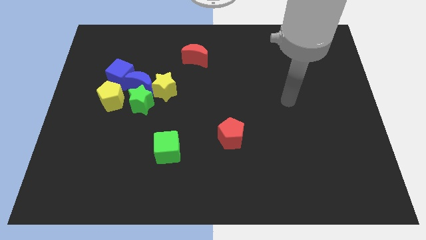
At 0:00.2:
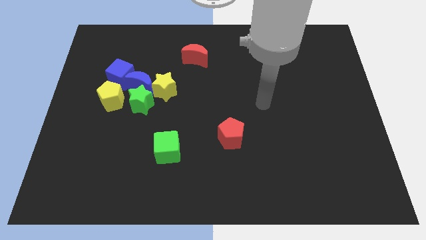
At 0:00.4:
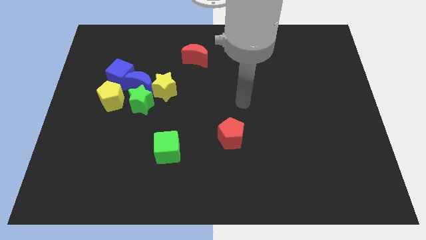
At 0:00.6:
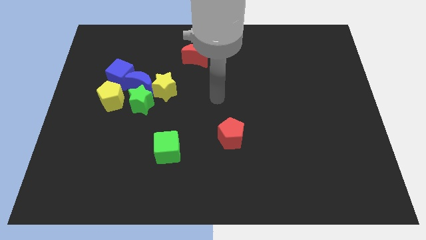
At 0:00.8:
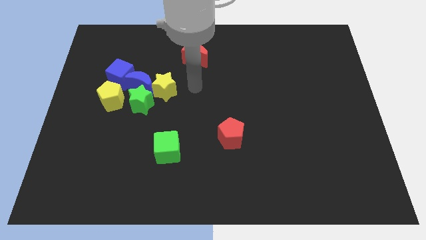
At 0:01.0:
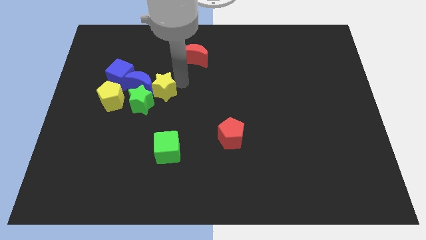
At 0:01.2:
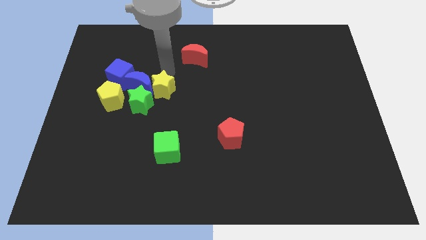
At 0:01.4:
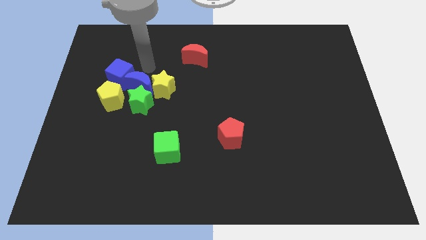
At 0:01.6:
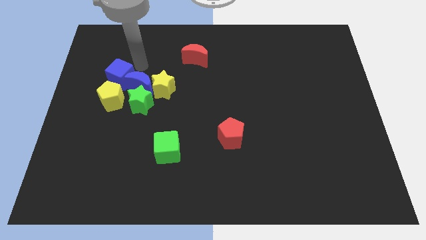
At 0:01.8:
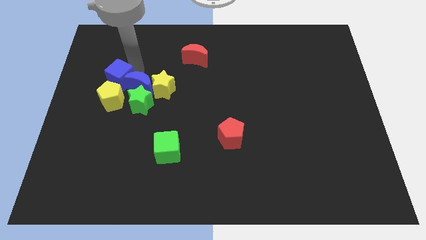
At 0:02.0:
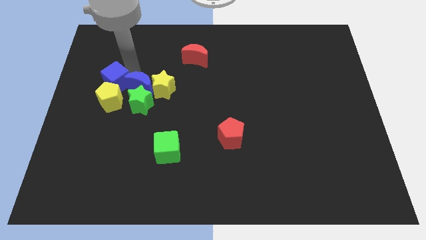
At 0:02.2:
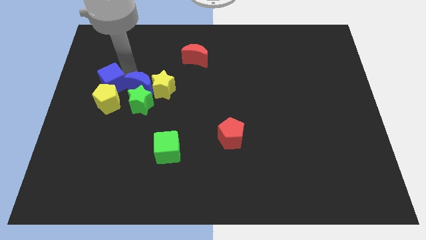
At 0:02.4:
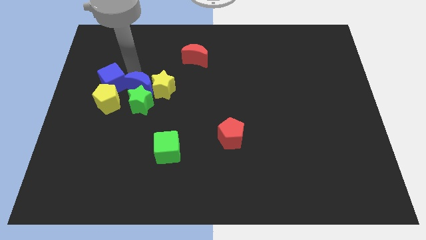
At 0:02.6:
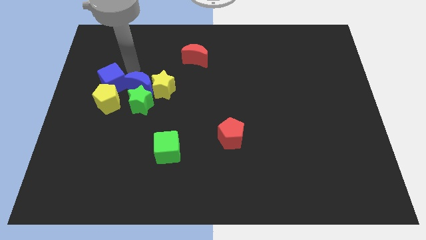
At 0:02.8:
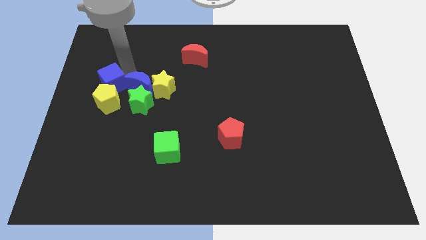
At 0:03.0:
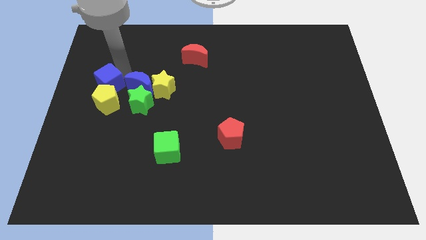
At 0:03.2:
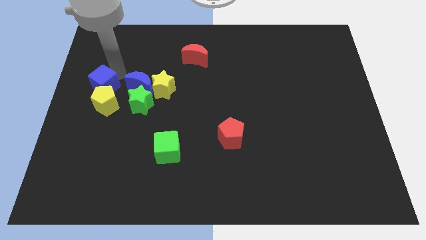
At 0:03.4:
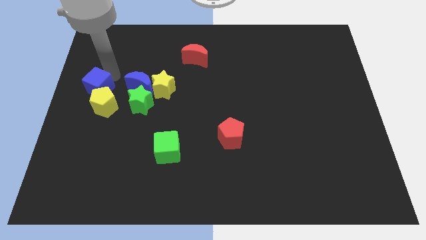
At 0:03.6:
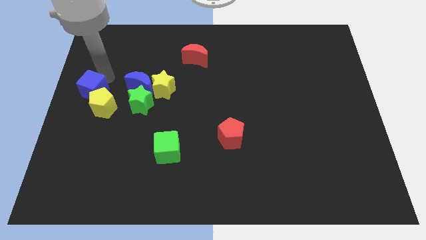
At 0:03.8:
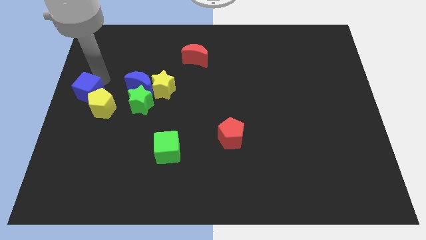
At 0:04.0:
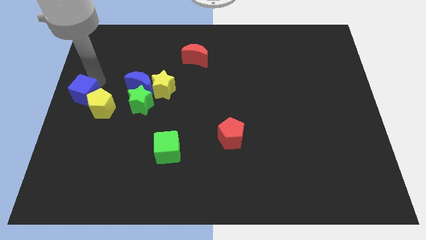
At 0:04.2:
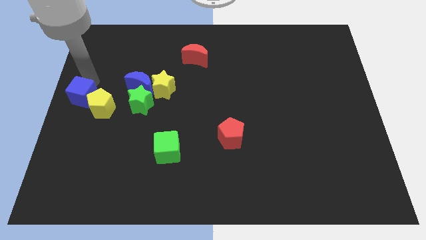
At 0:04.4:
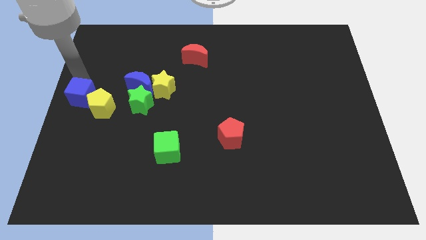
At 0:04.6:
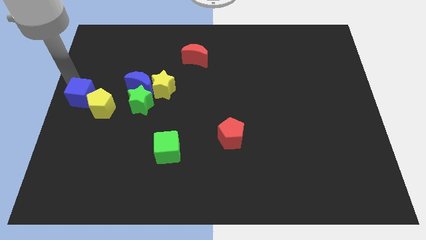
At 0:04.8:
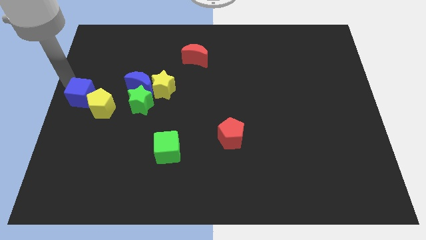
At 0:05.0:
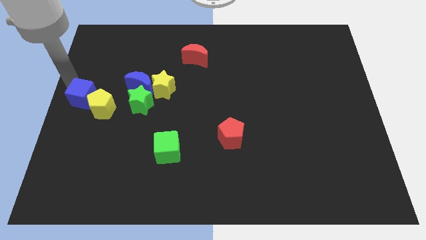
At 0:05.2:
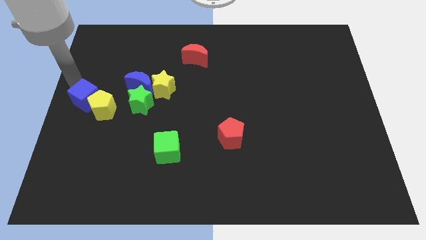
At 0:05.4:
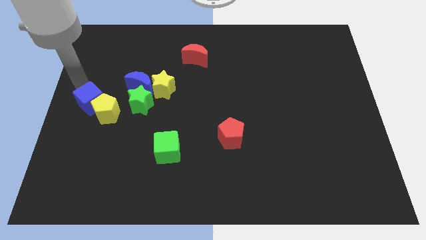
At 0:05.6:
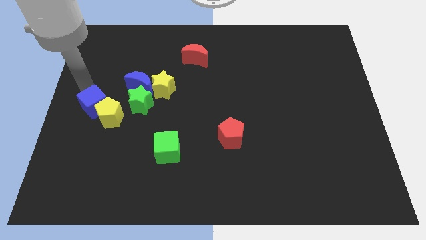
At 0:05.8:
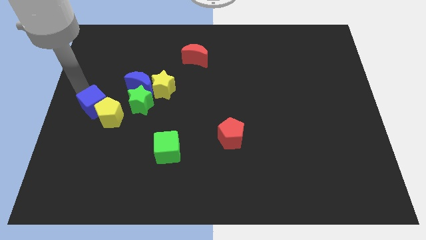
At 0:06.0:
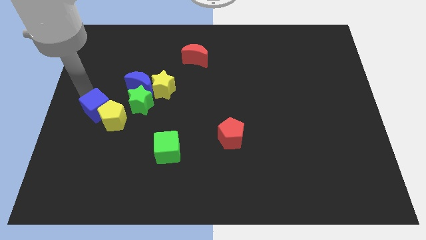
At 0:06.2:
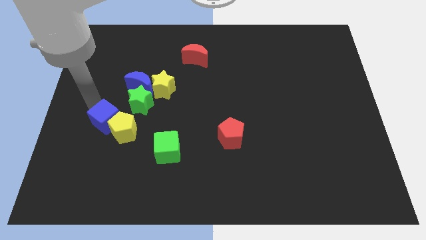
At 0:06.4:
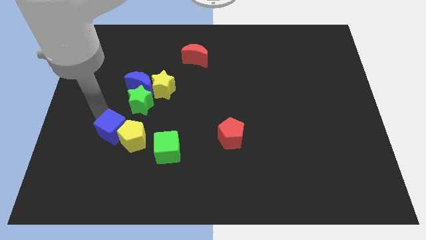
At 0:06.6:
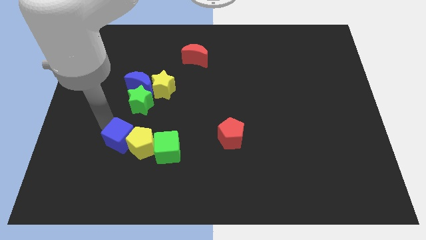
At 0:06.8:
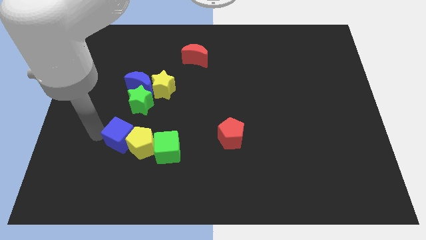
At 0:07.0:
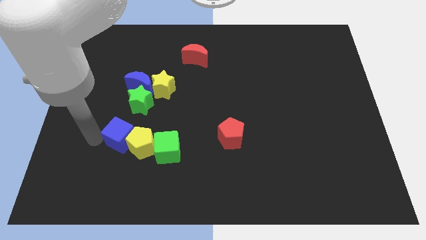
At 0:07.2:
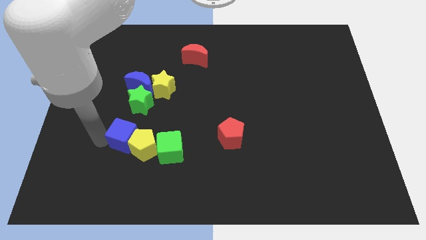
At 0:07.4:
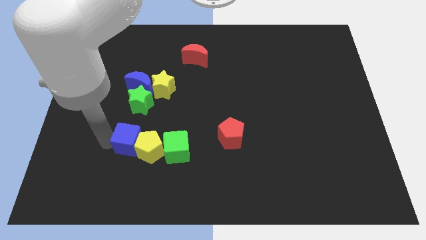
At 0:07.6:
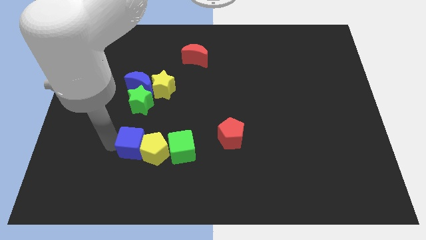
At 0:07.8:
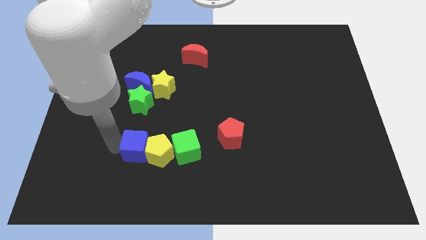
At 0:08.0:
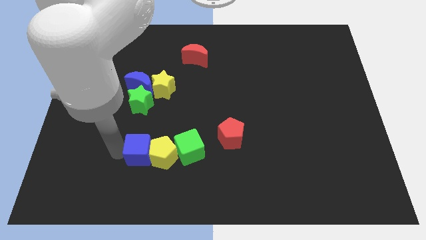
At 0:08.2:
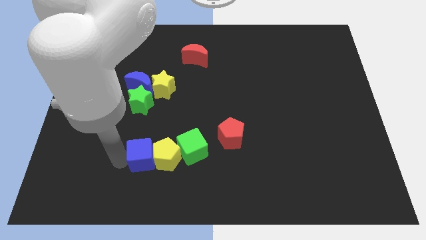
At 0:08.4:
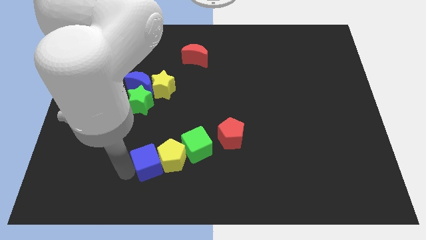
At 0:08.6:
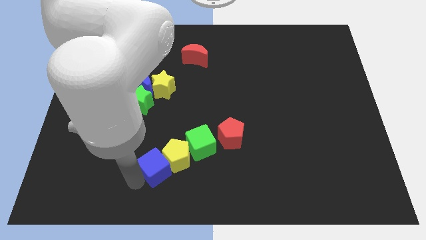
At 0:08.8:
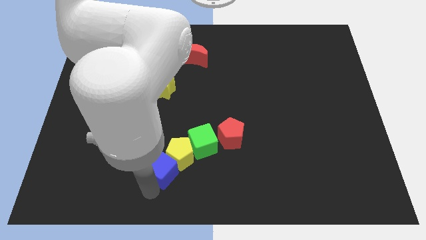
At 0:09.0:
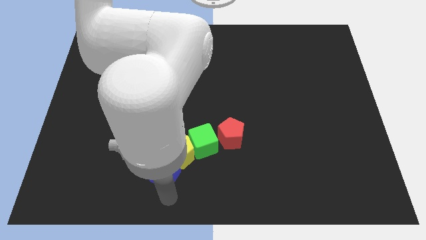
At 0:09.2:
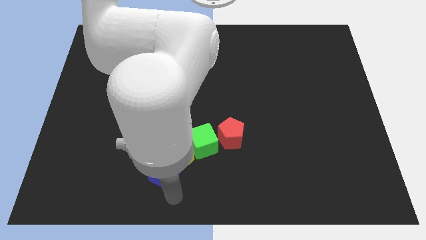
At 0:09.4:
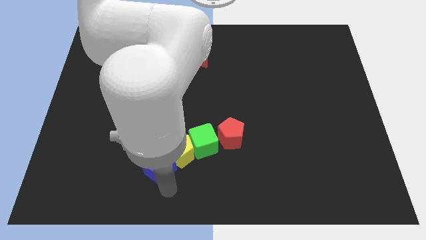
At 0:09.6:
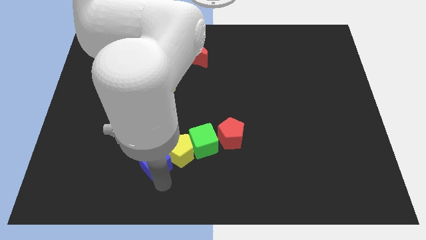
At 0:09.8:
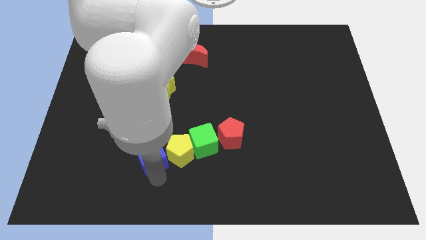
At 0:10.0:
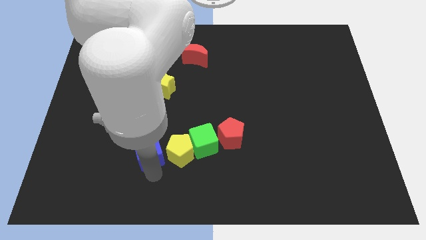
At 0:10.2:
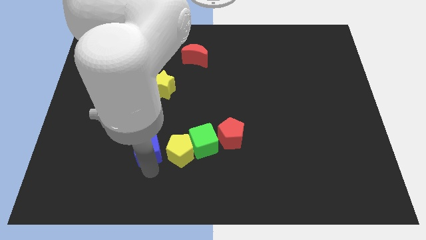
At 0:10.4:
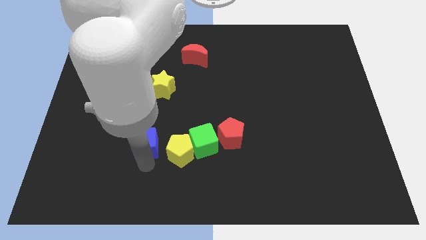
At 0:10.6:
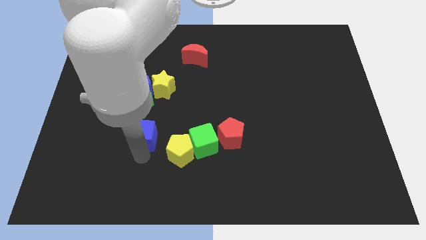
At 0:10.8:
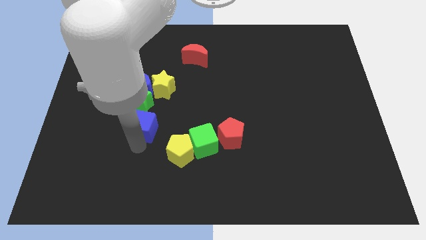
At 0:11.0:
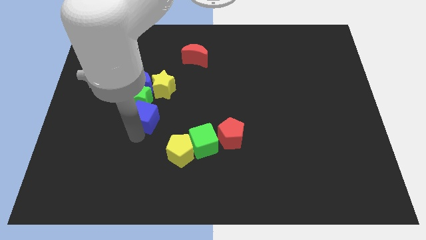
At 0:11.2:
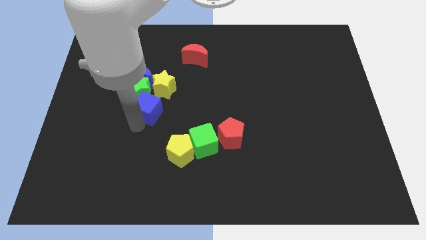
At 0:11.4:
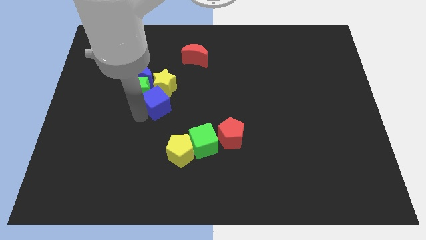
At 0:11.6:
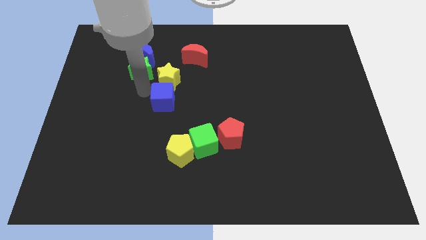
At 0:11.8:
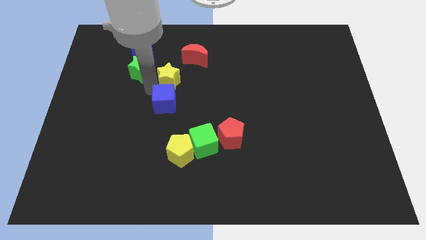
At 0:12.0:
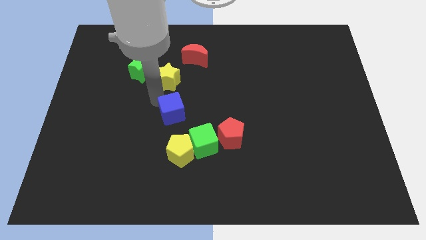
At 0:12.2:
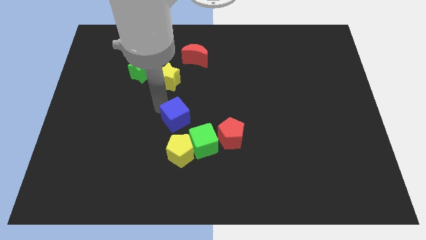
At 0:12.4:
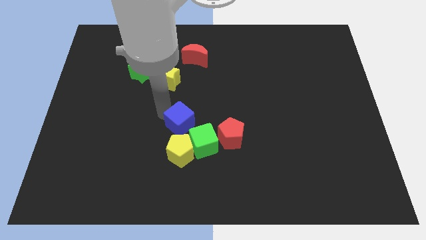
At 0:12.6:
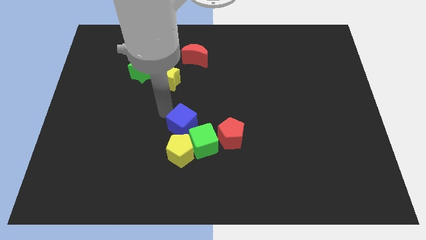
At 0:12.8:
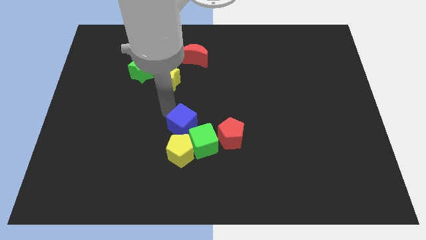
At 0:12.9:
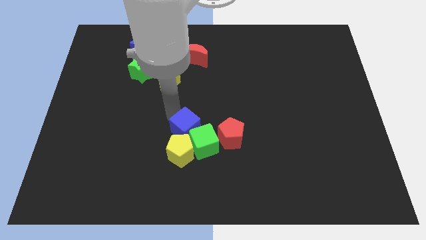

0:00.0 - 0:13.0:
put the blue cube to the green cube
